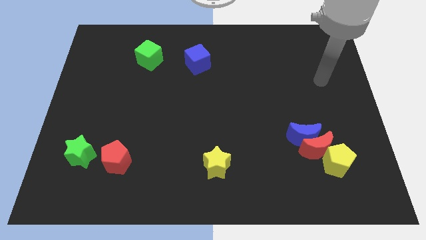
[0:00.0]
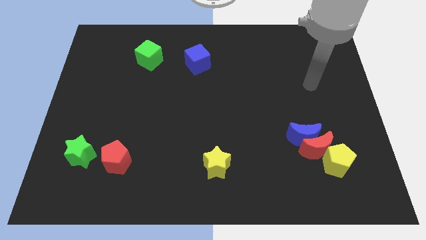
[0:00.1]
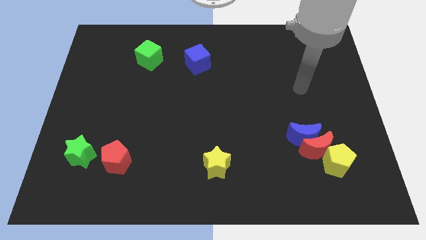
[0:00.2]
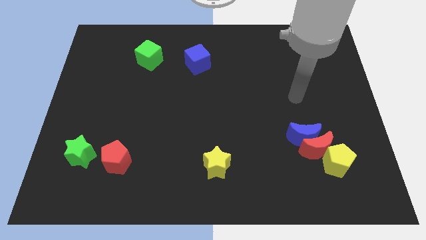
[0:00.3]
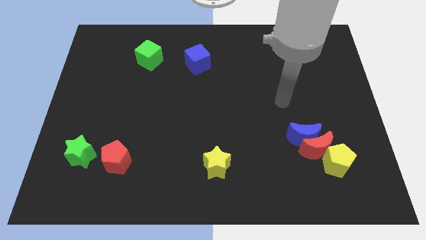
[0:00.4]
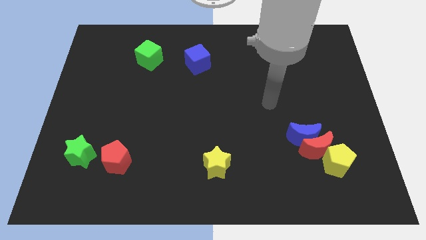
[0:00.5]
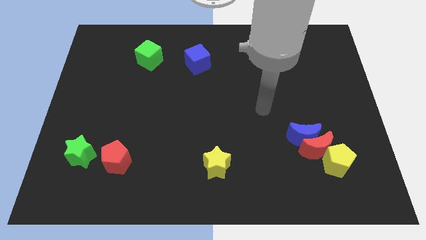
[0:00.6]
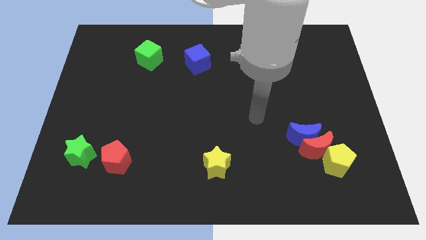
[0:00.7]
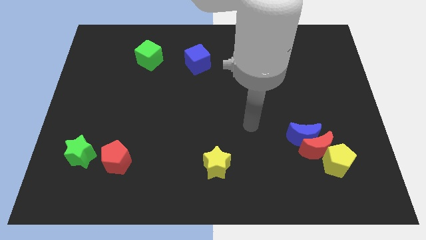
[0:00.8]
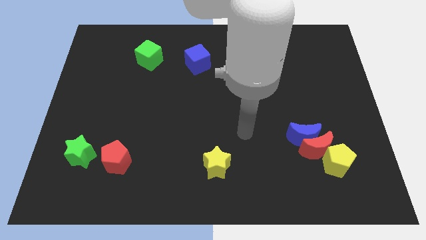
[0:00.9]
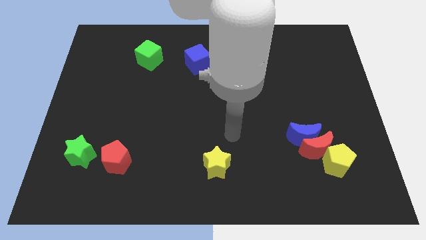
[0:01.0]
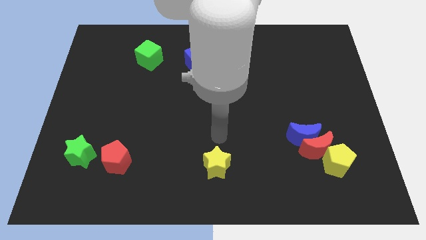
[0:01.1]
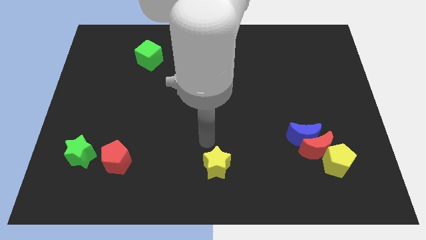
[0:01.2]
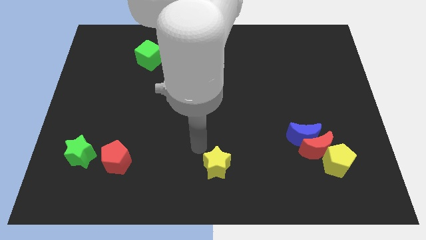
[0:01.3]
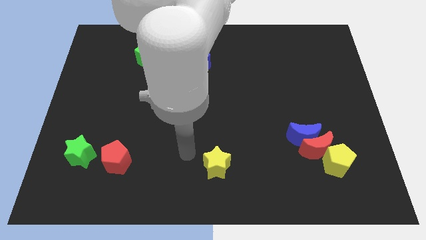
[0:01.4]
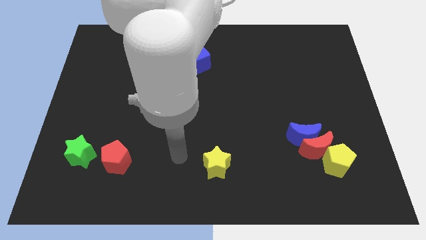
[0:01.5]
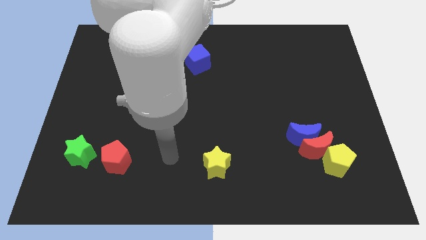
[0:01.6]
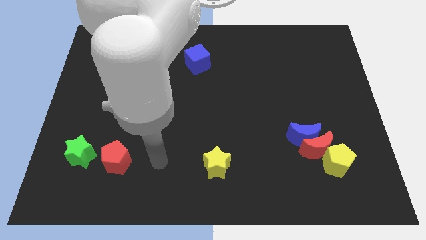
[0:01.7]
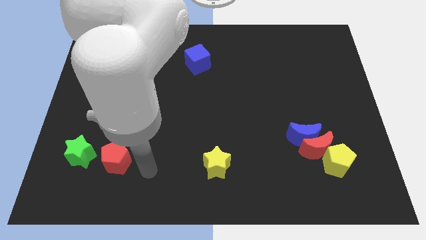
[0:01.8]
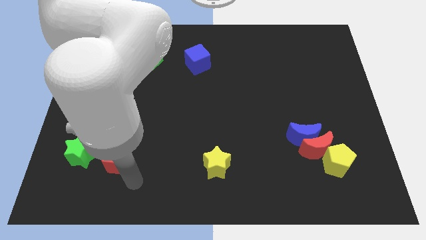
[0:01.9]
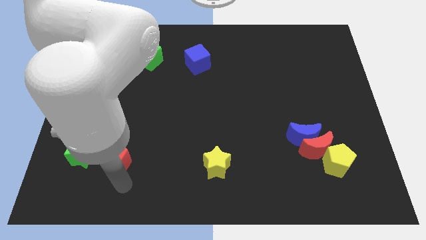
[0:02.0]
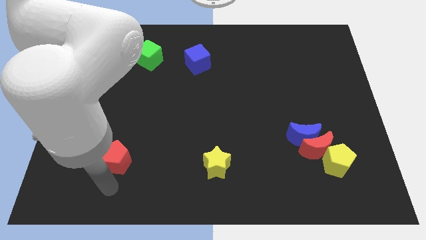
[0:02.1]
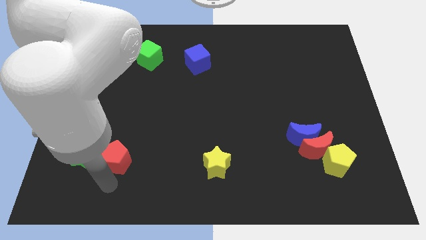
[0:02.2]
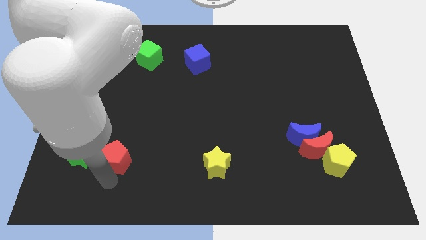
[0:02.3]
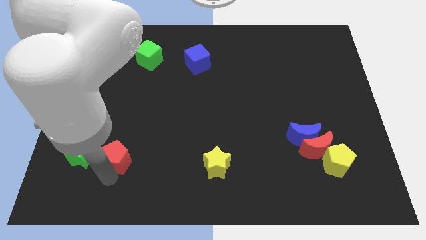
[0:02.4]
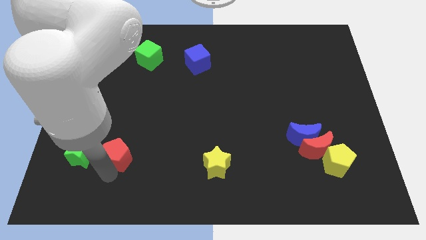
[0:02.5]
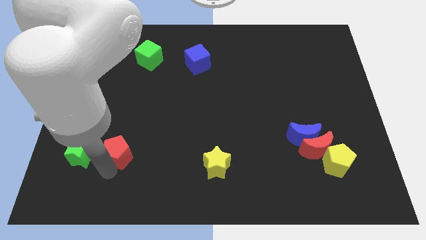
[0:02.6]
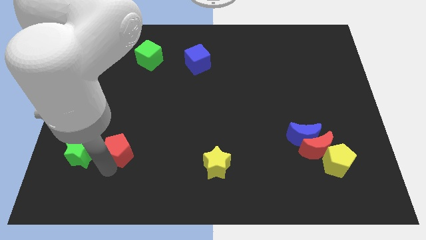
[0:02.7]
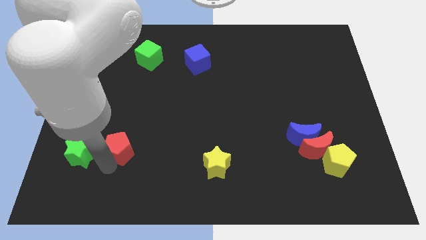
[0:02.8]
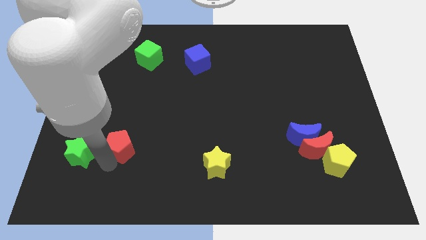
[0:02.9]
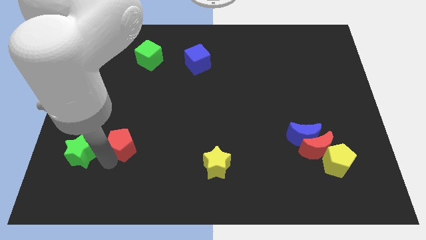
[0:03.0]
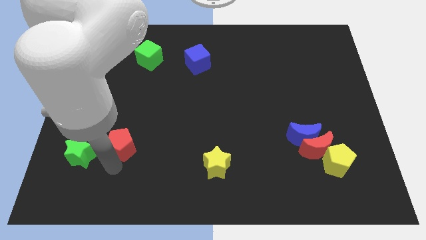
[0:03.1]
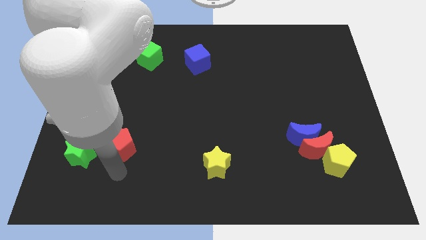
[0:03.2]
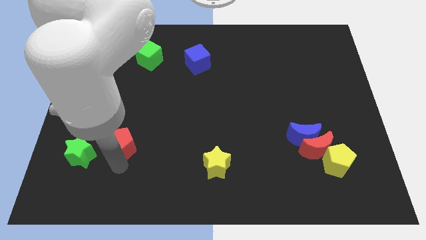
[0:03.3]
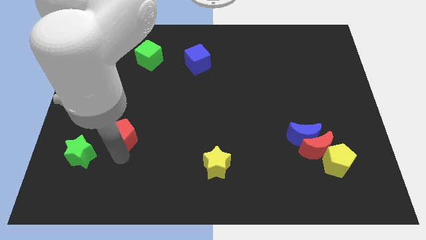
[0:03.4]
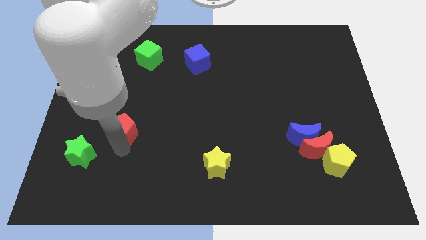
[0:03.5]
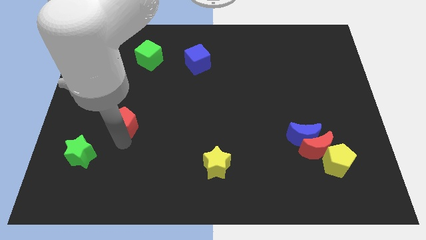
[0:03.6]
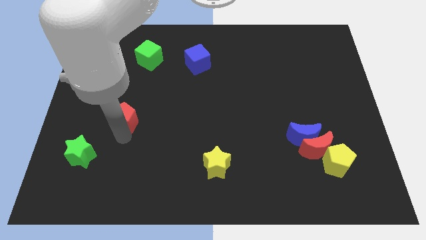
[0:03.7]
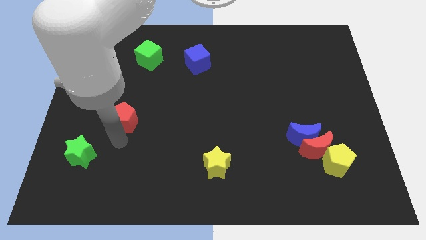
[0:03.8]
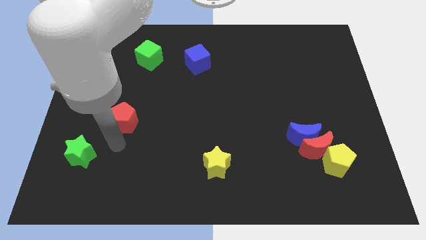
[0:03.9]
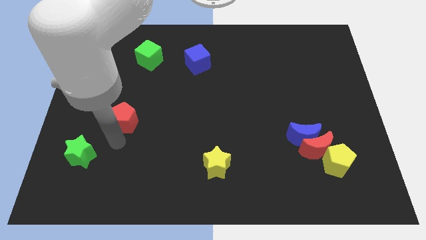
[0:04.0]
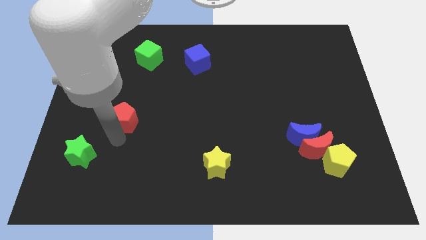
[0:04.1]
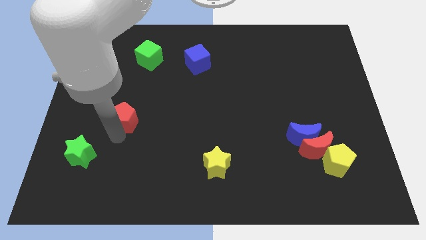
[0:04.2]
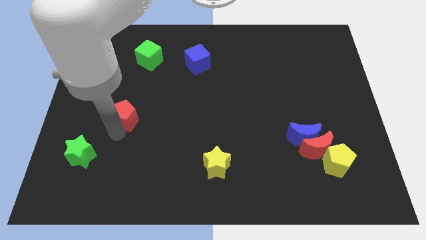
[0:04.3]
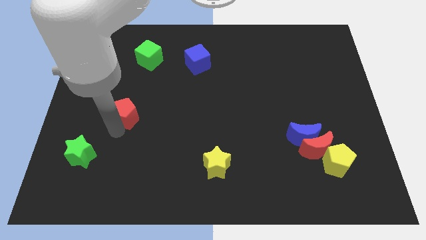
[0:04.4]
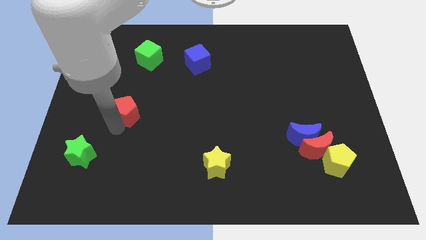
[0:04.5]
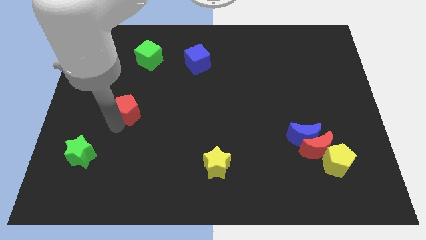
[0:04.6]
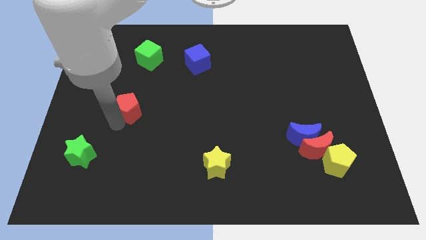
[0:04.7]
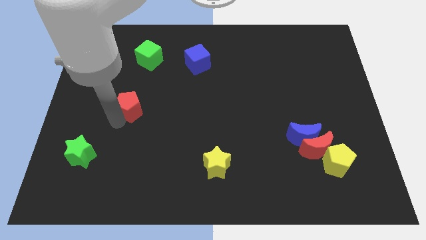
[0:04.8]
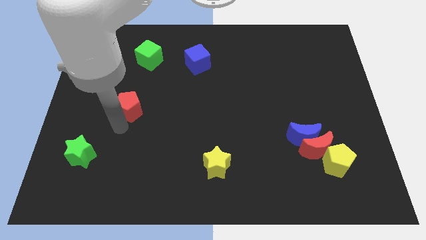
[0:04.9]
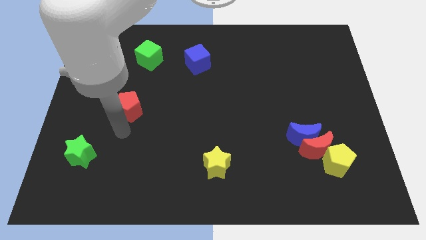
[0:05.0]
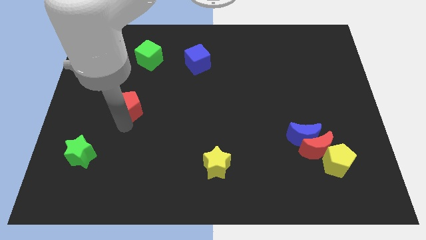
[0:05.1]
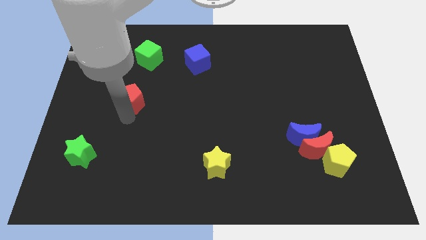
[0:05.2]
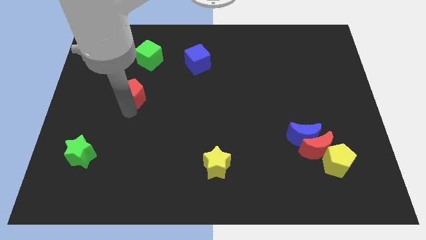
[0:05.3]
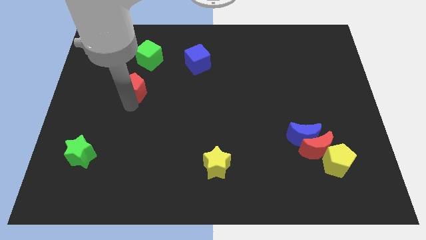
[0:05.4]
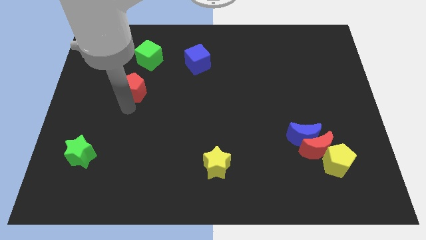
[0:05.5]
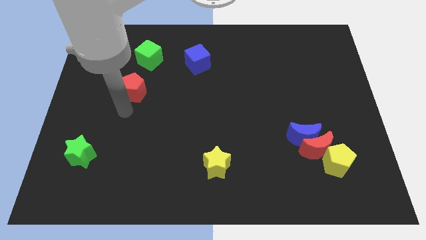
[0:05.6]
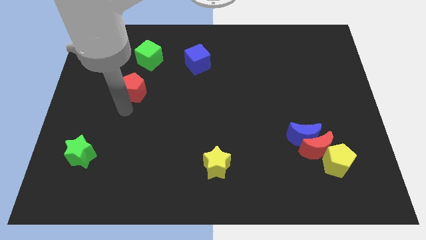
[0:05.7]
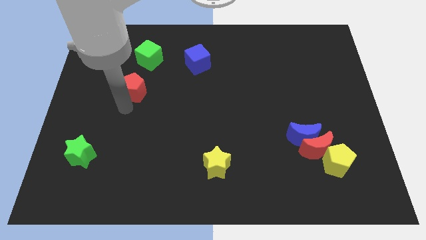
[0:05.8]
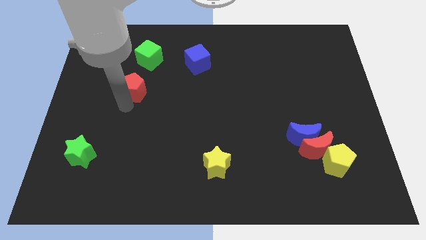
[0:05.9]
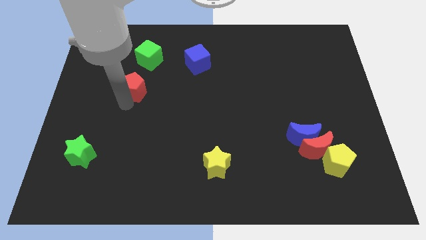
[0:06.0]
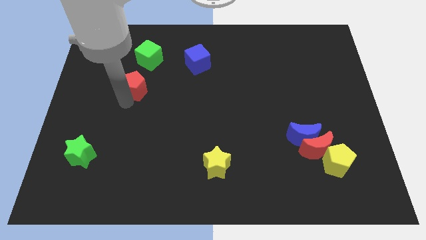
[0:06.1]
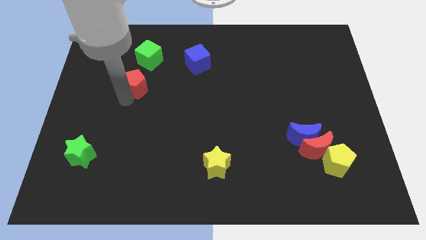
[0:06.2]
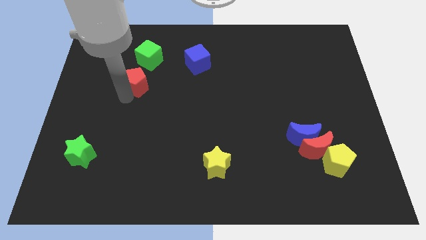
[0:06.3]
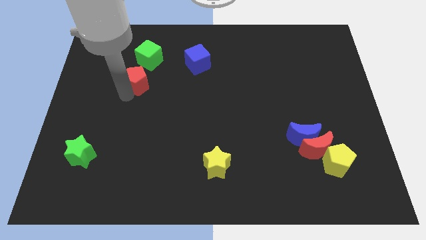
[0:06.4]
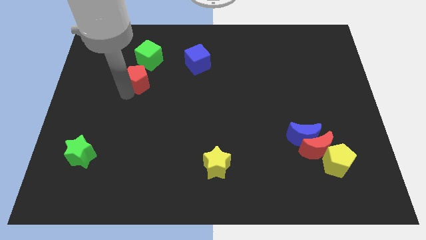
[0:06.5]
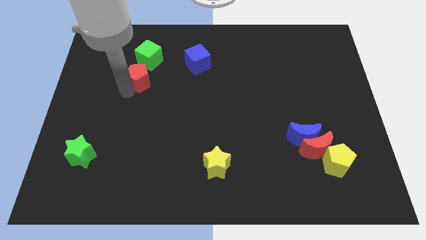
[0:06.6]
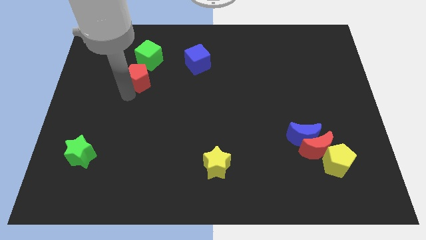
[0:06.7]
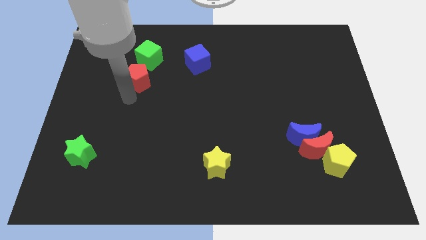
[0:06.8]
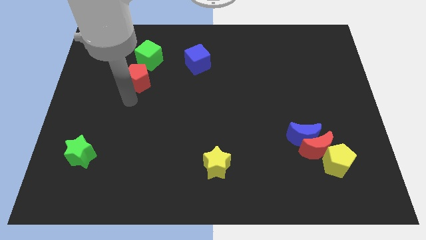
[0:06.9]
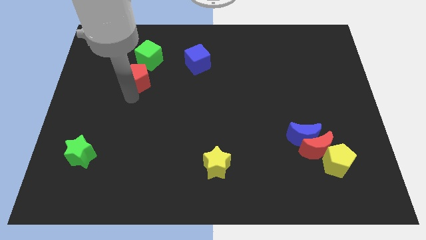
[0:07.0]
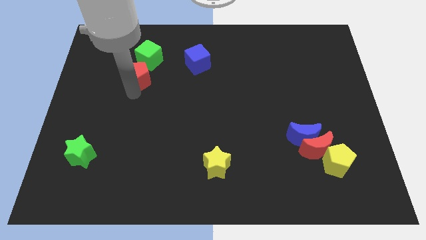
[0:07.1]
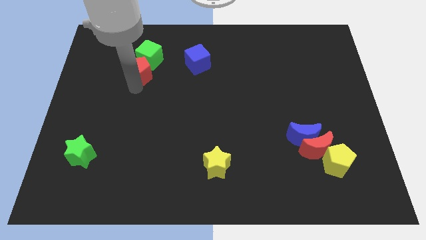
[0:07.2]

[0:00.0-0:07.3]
slide the red pentagon towards the green cube

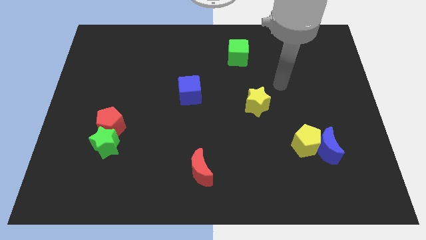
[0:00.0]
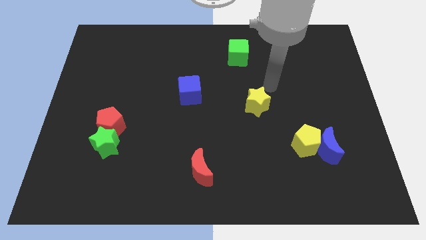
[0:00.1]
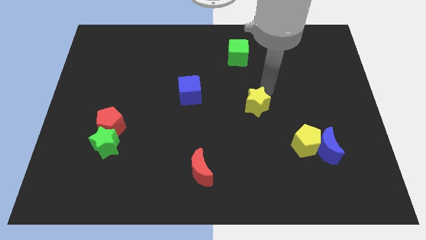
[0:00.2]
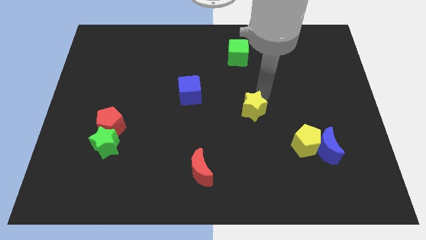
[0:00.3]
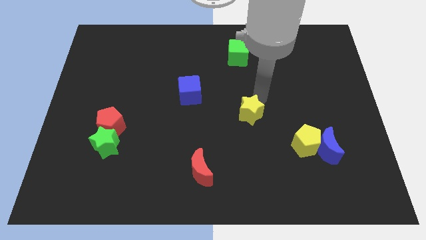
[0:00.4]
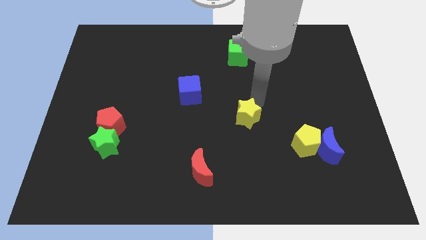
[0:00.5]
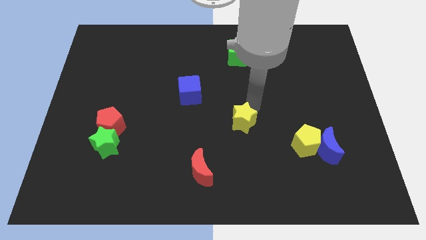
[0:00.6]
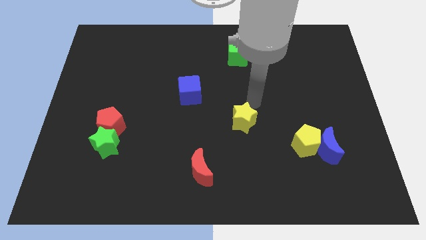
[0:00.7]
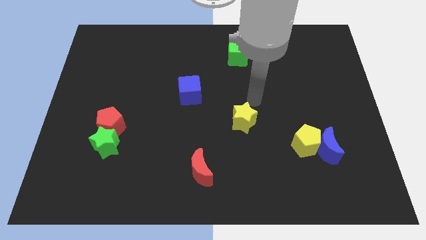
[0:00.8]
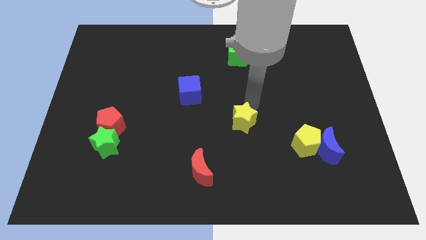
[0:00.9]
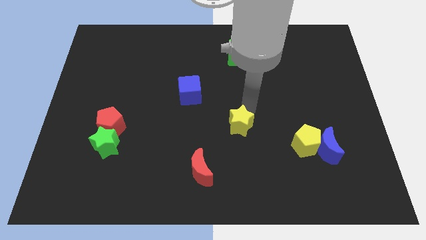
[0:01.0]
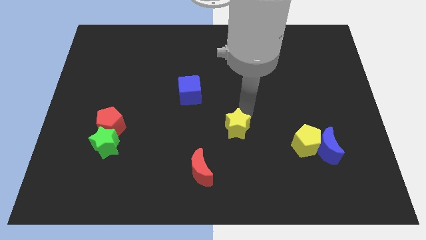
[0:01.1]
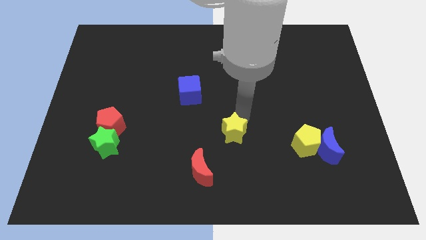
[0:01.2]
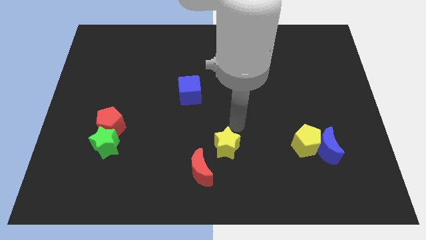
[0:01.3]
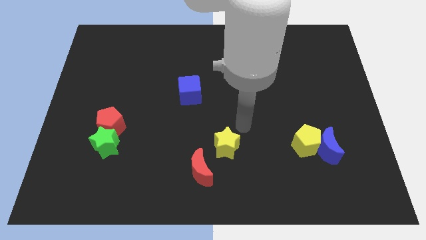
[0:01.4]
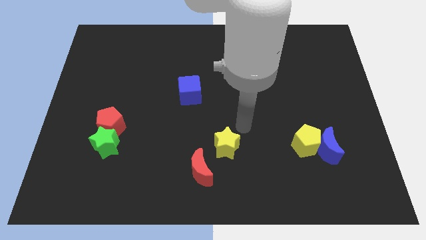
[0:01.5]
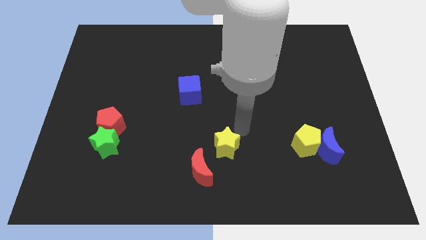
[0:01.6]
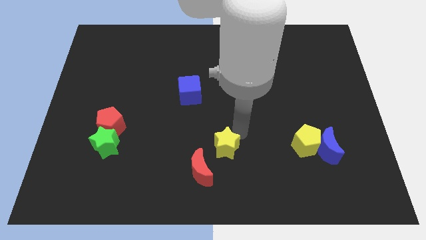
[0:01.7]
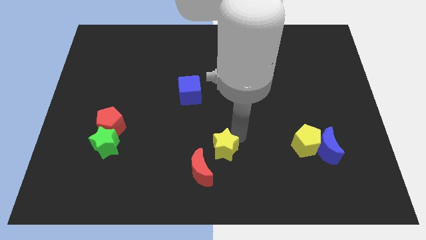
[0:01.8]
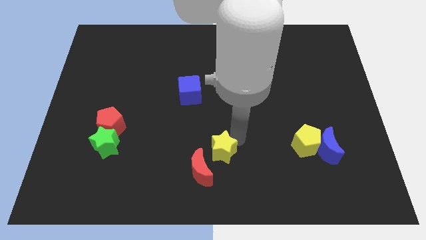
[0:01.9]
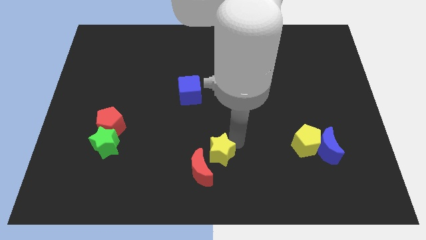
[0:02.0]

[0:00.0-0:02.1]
slide the yellow star close to the red moon
